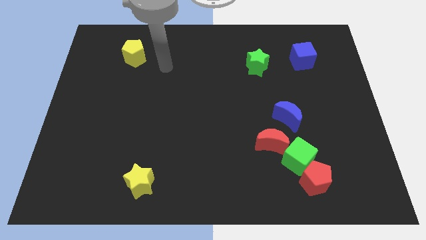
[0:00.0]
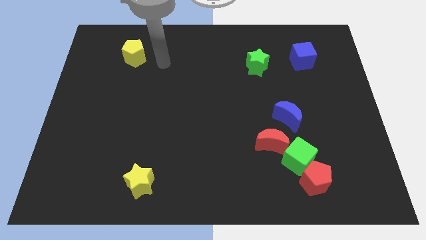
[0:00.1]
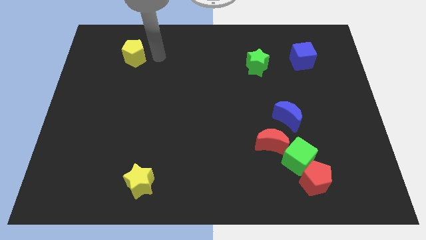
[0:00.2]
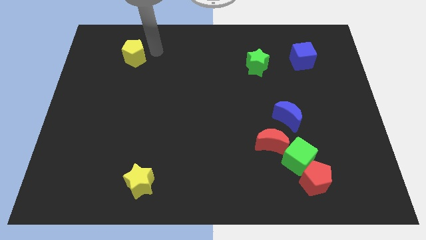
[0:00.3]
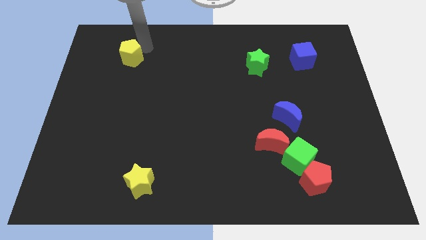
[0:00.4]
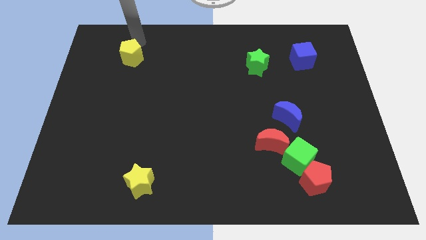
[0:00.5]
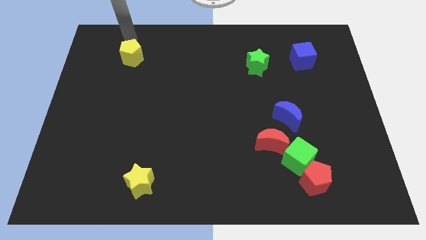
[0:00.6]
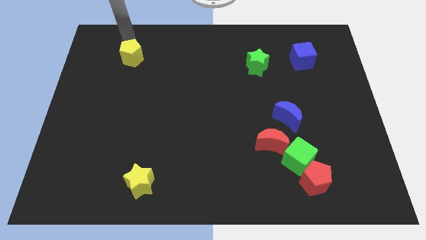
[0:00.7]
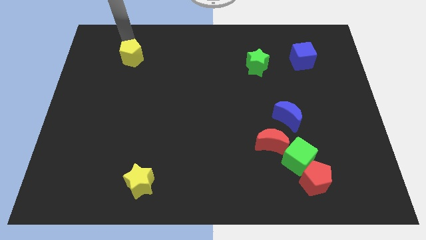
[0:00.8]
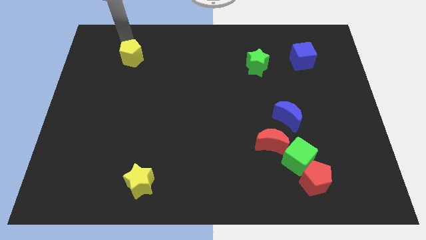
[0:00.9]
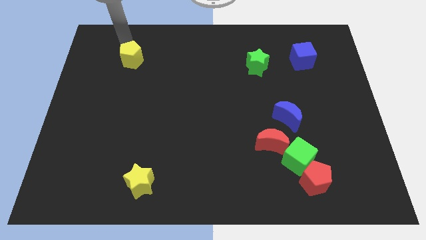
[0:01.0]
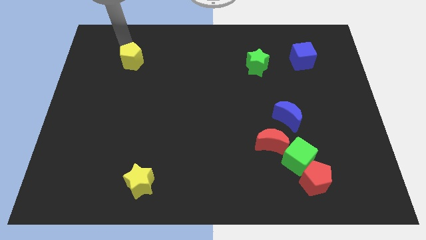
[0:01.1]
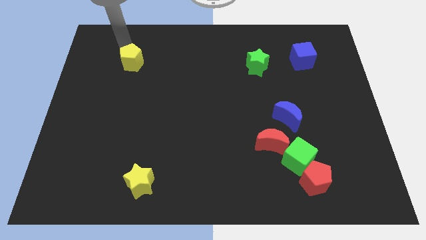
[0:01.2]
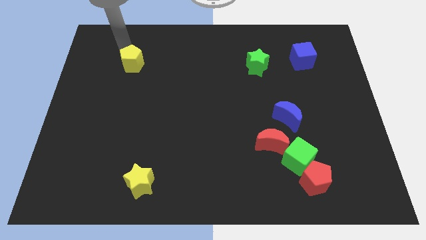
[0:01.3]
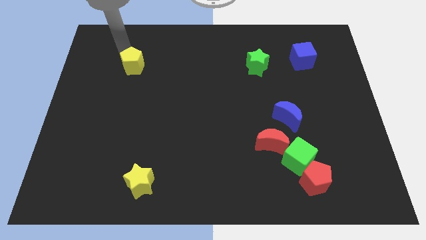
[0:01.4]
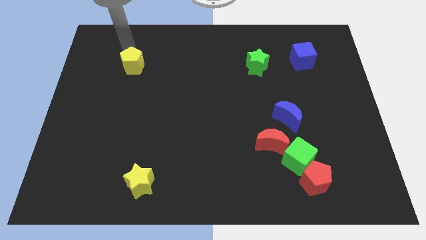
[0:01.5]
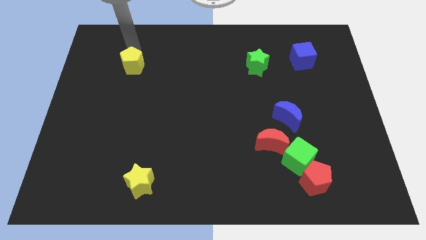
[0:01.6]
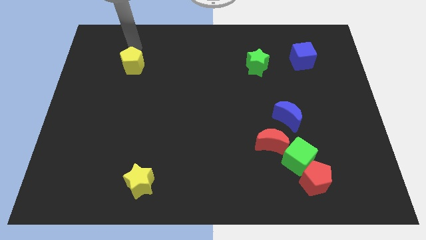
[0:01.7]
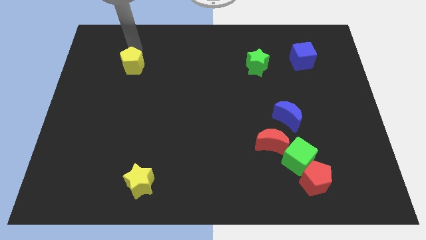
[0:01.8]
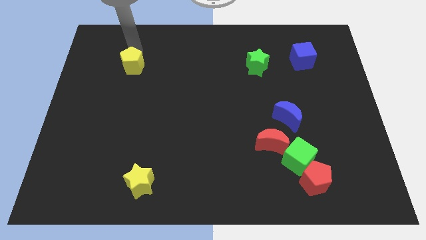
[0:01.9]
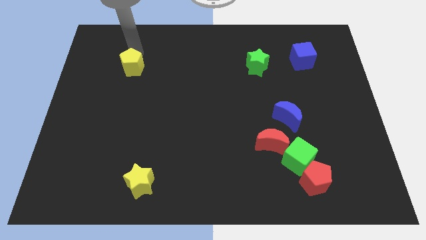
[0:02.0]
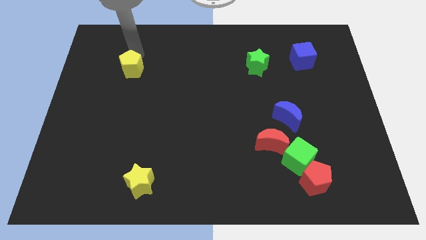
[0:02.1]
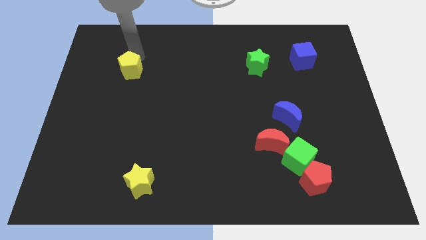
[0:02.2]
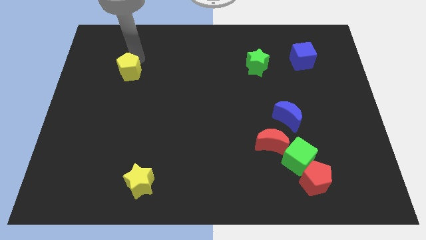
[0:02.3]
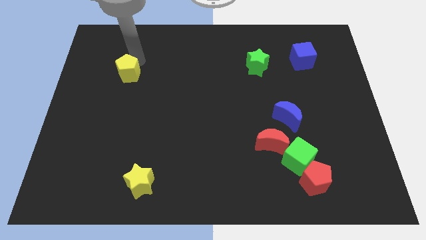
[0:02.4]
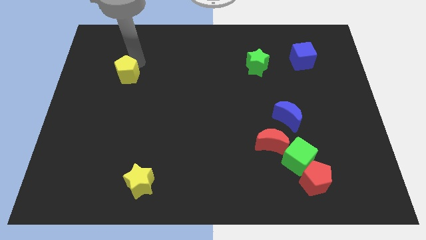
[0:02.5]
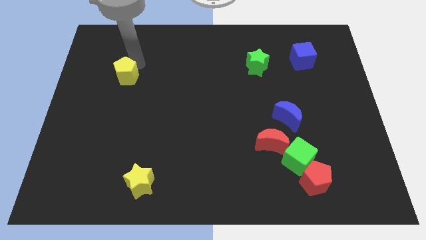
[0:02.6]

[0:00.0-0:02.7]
slightly move the yellow pentagon down

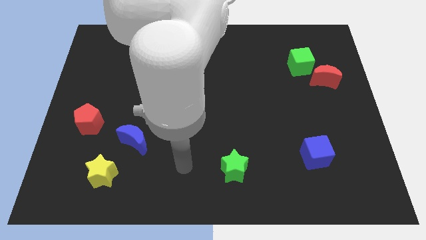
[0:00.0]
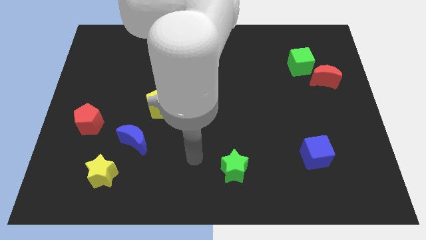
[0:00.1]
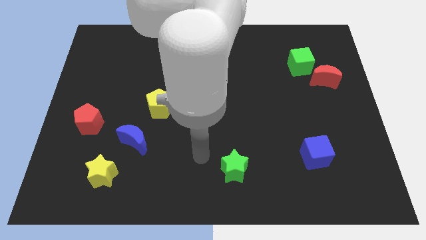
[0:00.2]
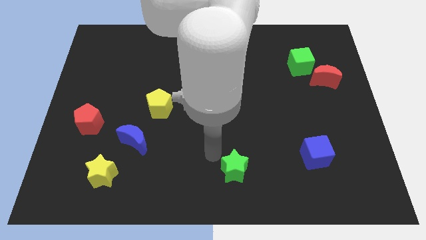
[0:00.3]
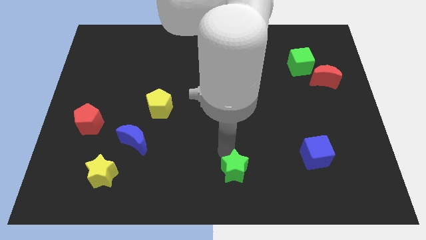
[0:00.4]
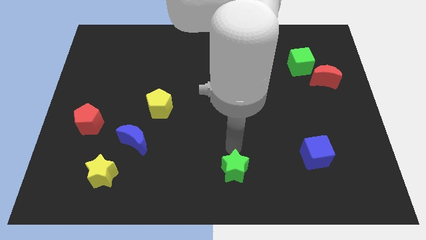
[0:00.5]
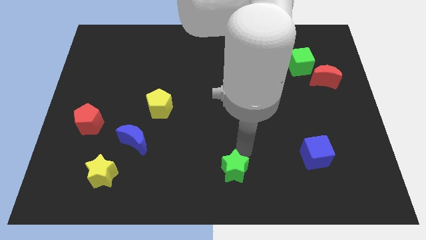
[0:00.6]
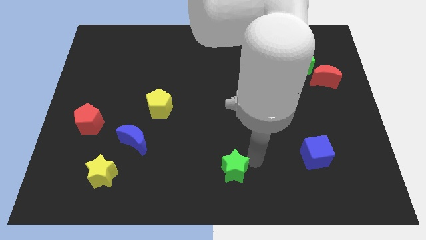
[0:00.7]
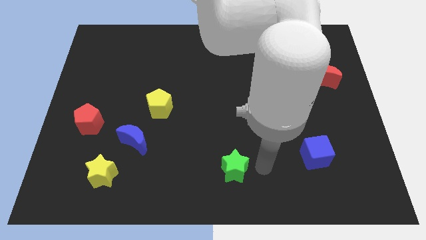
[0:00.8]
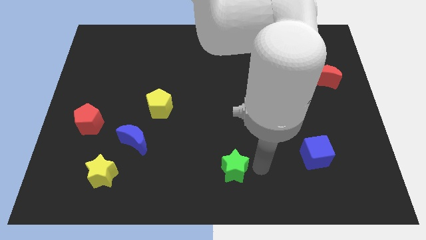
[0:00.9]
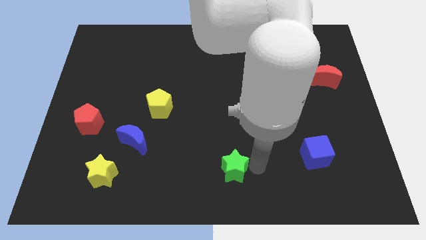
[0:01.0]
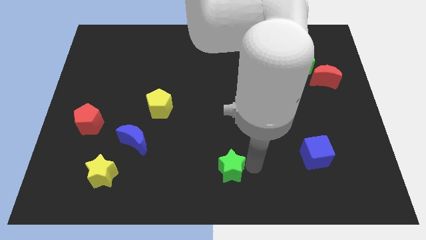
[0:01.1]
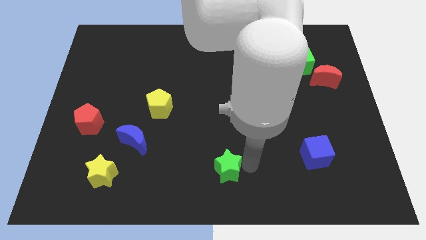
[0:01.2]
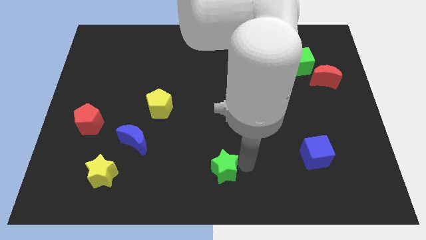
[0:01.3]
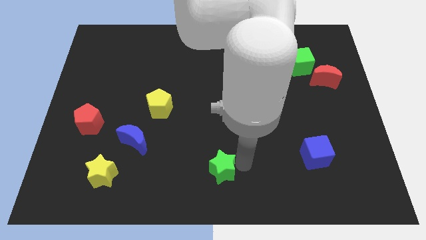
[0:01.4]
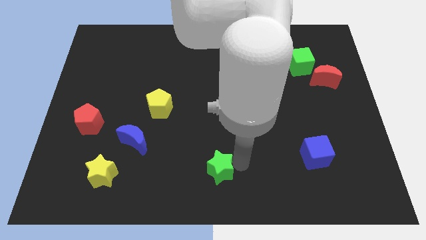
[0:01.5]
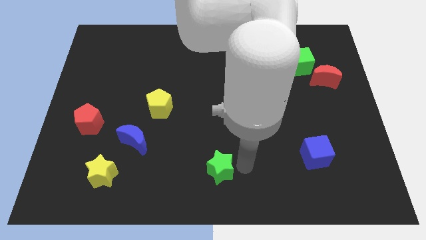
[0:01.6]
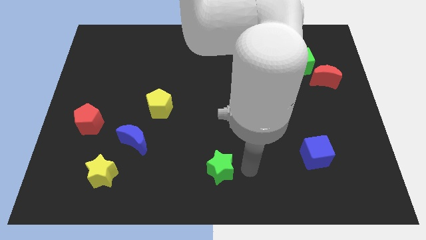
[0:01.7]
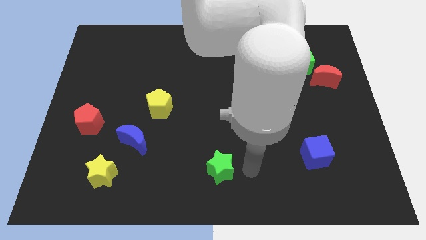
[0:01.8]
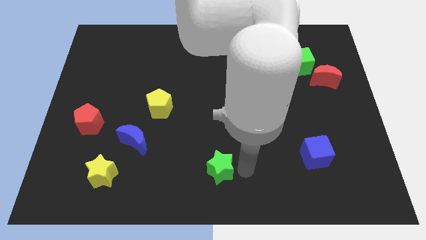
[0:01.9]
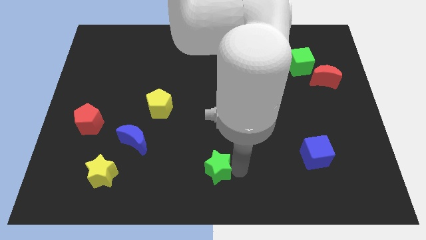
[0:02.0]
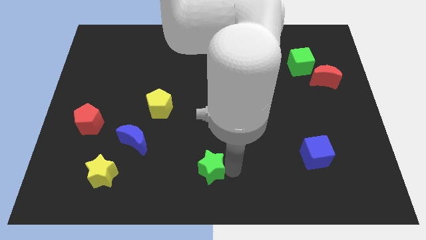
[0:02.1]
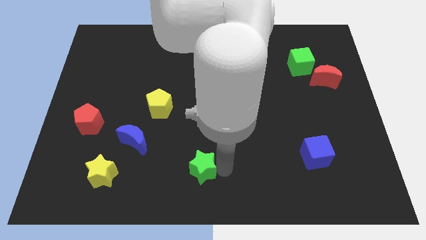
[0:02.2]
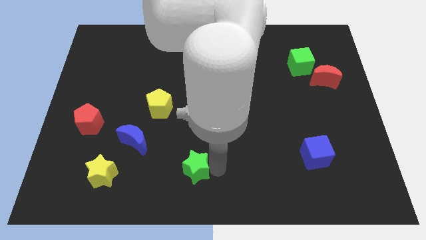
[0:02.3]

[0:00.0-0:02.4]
slightly move the green star left

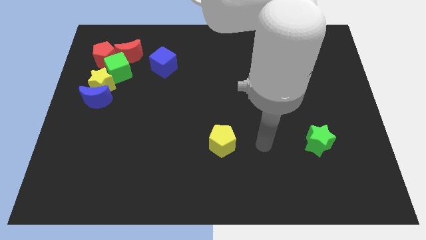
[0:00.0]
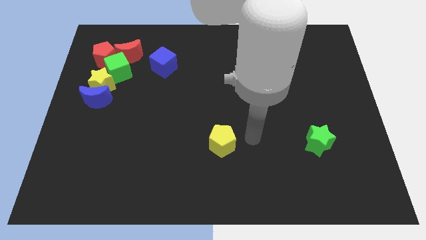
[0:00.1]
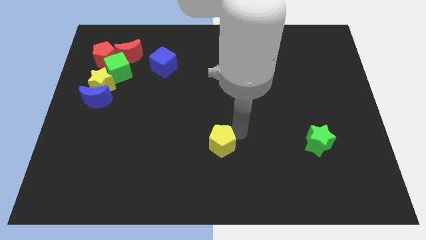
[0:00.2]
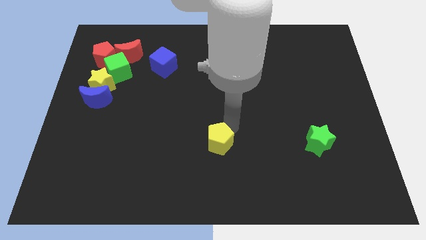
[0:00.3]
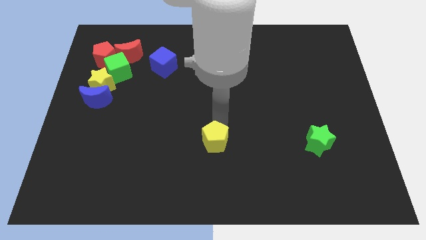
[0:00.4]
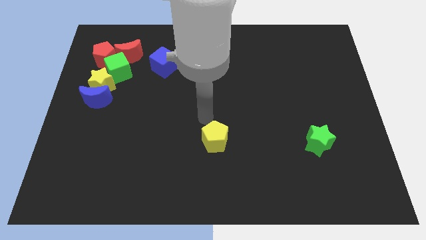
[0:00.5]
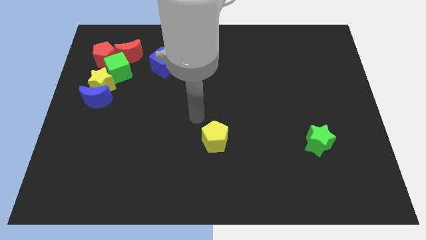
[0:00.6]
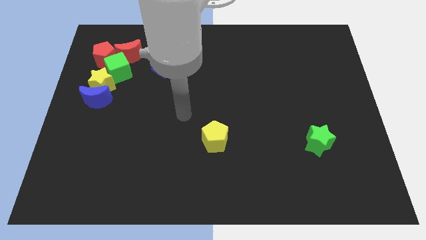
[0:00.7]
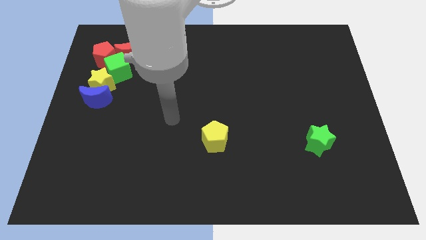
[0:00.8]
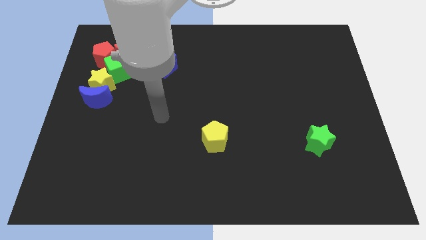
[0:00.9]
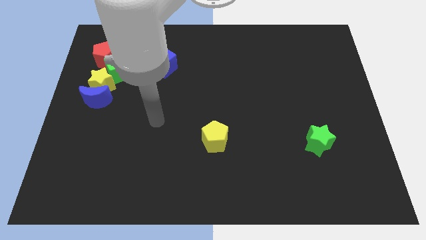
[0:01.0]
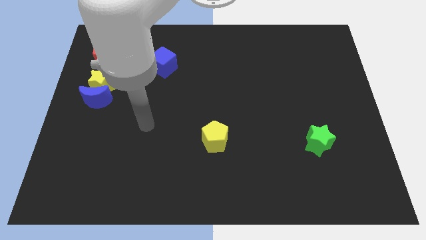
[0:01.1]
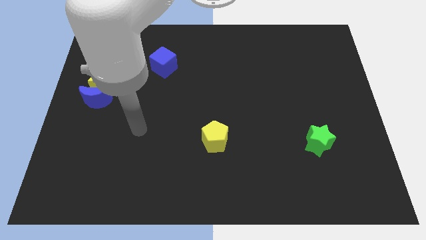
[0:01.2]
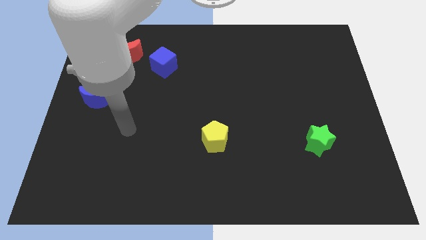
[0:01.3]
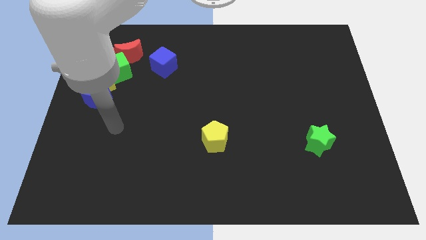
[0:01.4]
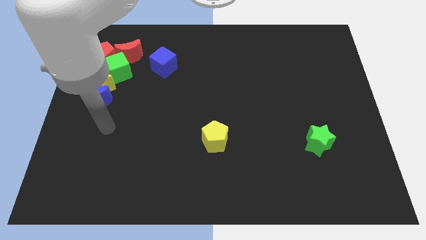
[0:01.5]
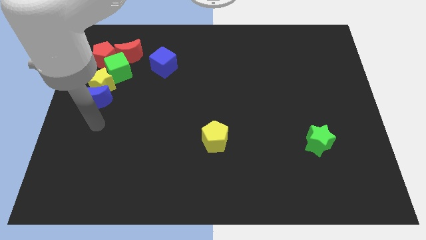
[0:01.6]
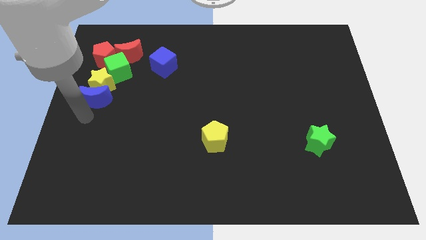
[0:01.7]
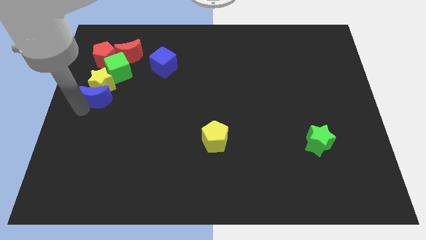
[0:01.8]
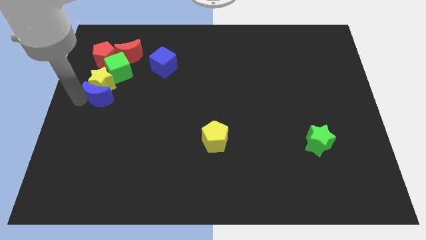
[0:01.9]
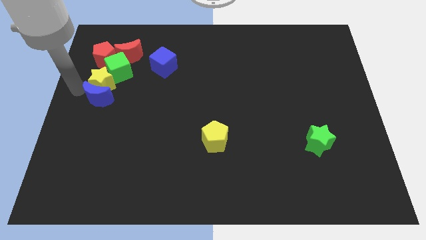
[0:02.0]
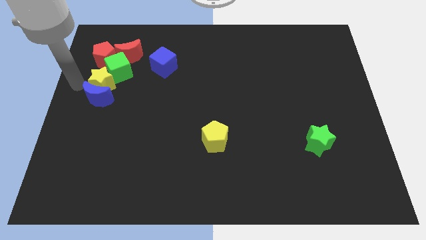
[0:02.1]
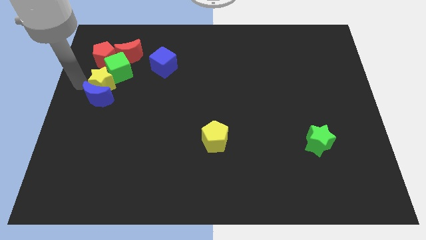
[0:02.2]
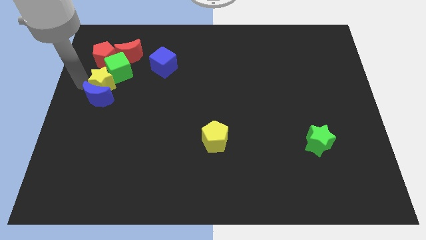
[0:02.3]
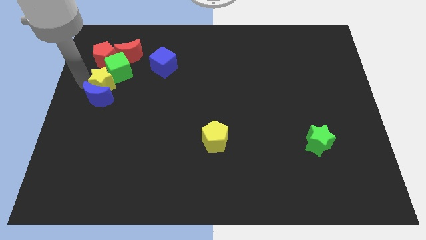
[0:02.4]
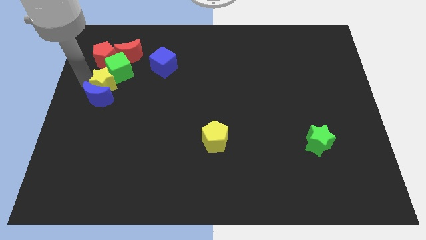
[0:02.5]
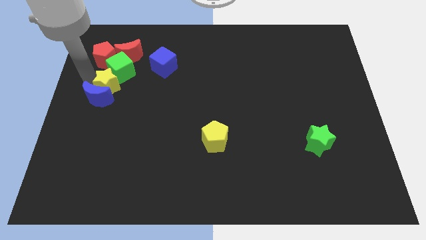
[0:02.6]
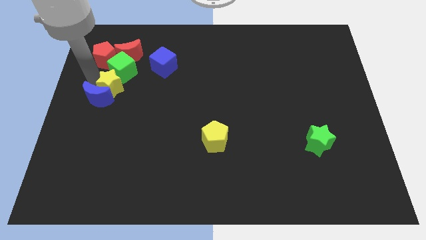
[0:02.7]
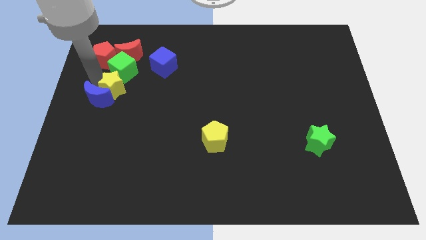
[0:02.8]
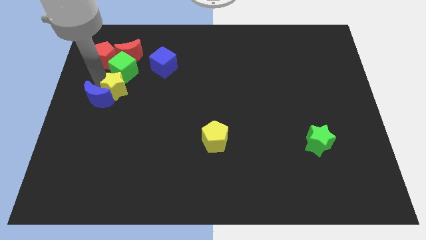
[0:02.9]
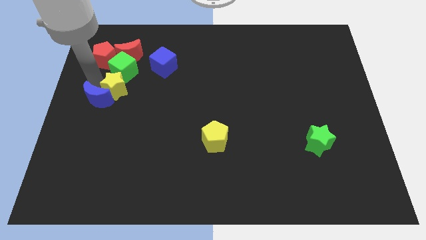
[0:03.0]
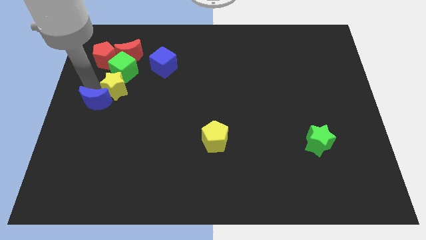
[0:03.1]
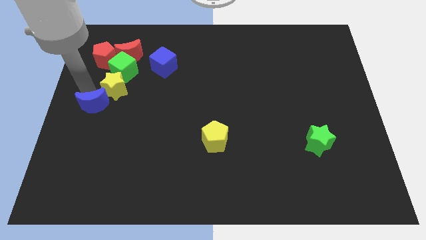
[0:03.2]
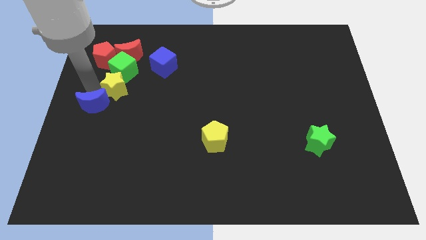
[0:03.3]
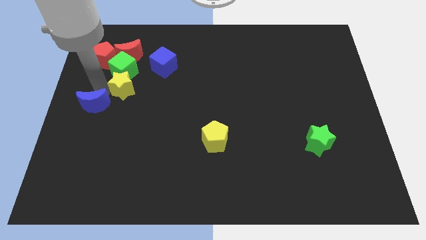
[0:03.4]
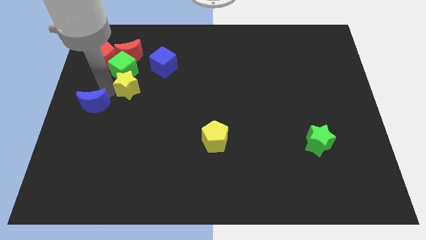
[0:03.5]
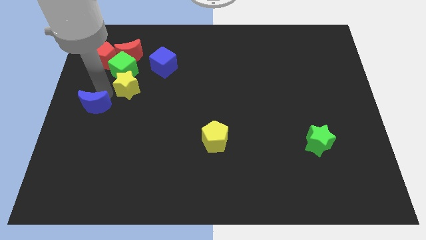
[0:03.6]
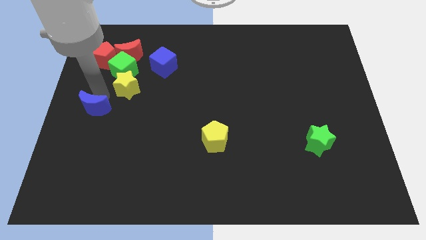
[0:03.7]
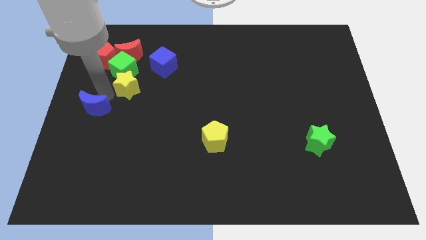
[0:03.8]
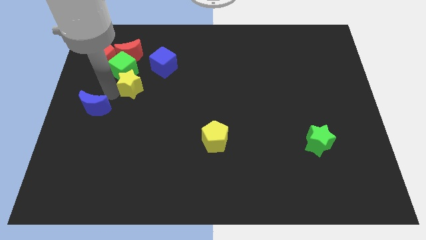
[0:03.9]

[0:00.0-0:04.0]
slide the yellow star to the right a little
